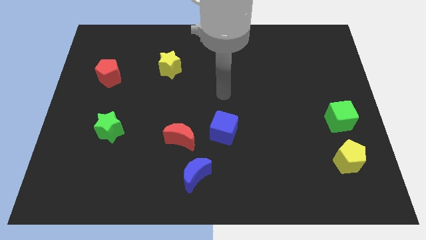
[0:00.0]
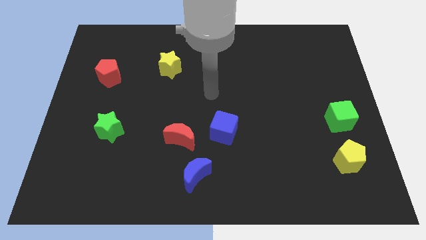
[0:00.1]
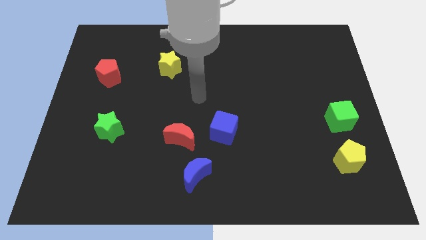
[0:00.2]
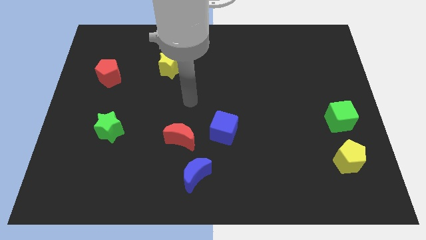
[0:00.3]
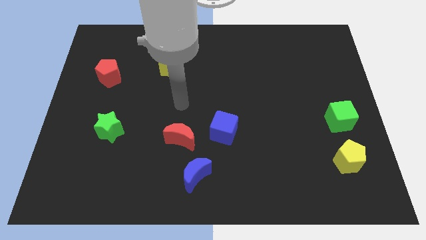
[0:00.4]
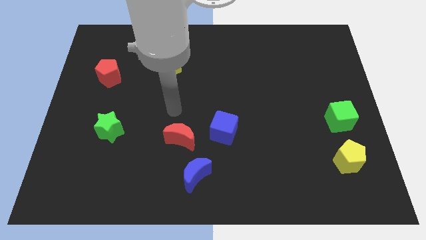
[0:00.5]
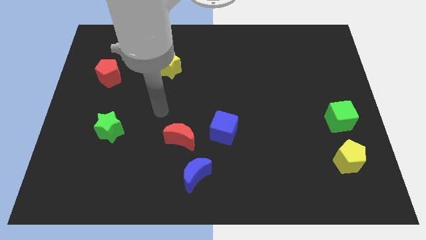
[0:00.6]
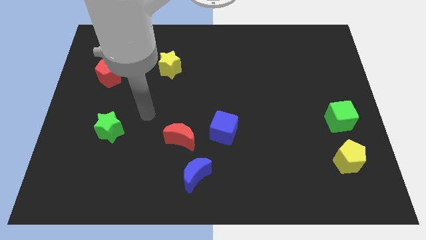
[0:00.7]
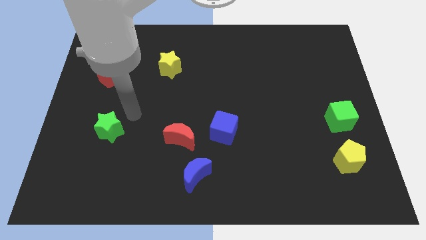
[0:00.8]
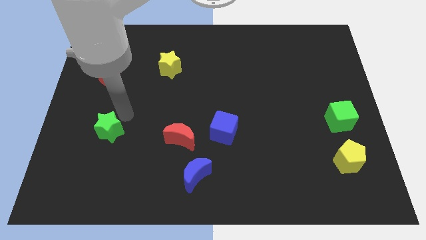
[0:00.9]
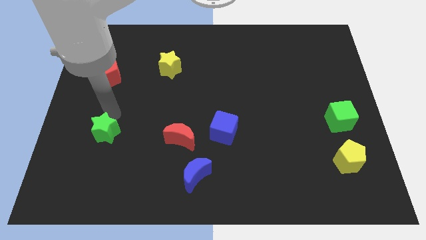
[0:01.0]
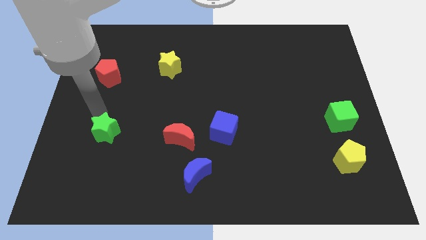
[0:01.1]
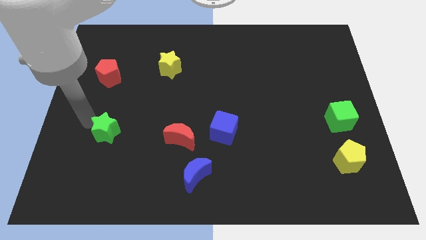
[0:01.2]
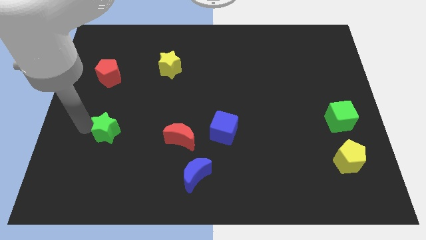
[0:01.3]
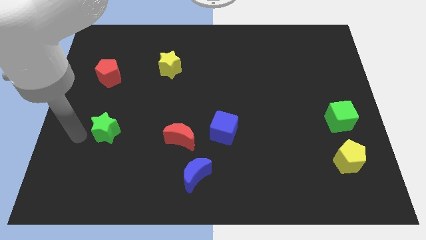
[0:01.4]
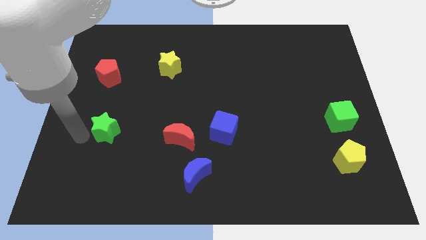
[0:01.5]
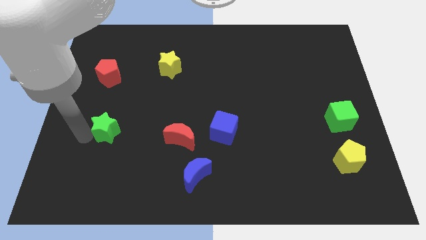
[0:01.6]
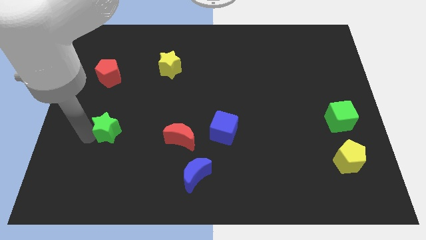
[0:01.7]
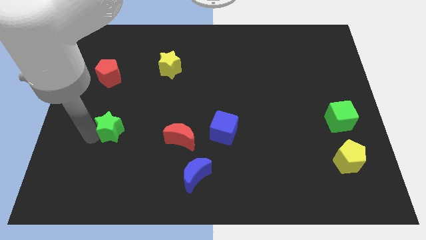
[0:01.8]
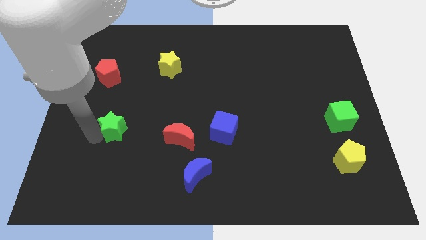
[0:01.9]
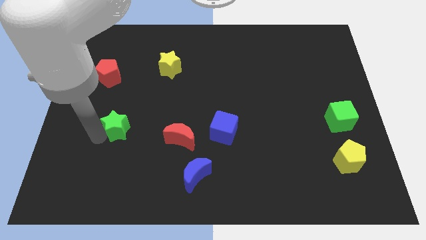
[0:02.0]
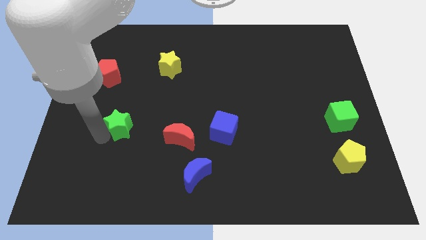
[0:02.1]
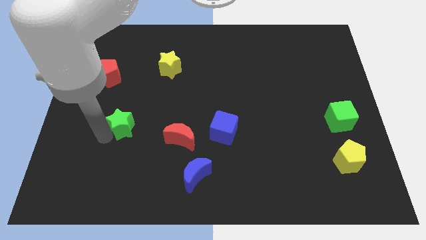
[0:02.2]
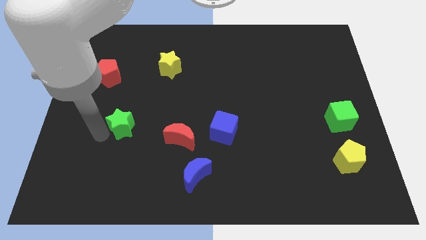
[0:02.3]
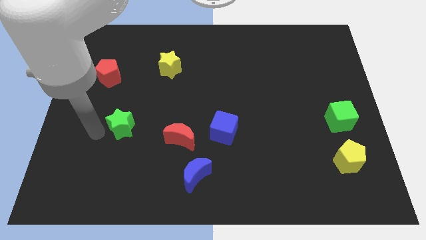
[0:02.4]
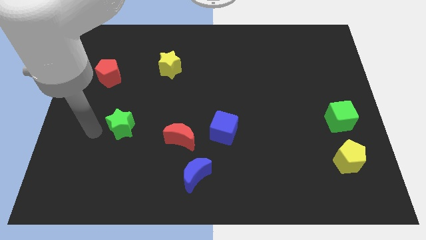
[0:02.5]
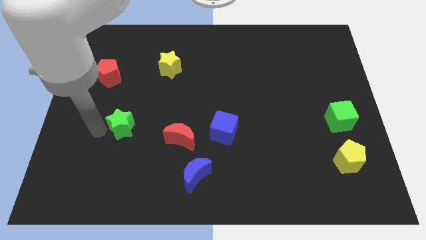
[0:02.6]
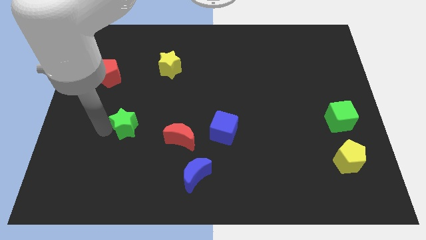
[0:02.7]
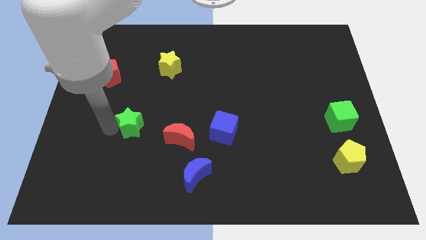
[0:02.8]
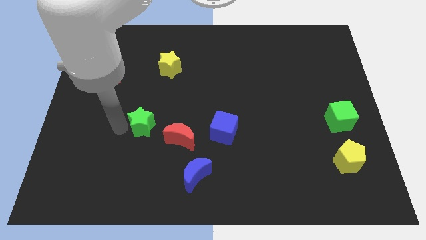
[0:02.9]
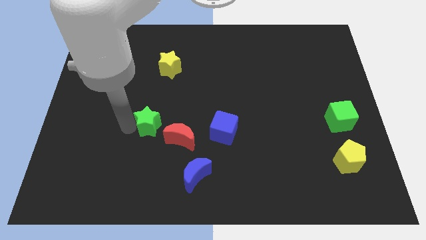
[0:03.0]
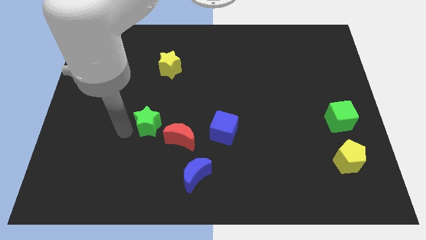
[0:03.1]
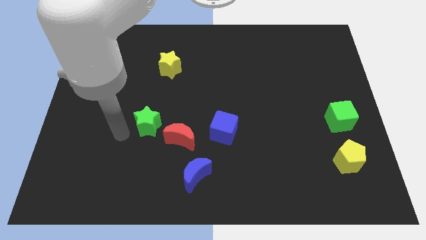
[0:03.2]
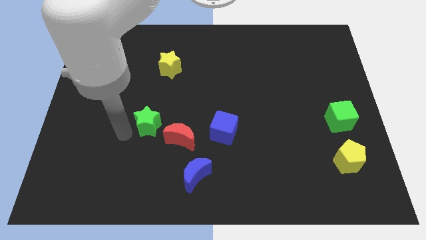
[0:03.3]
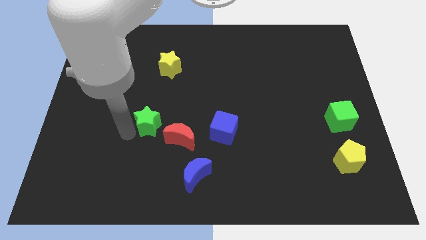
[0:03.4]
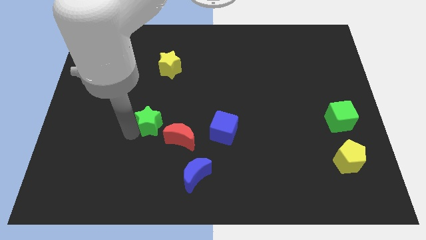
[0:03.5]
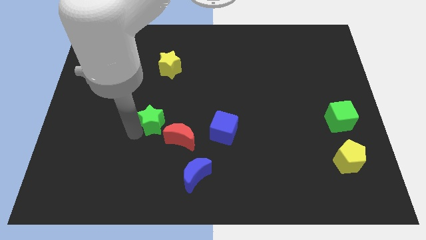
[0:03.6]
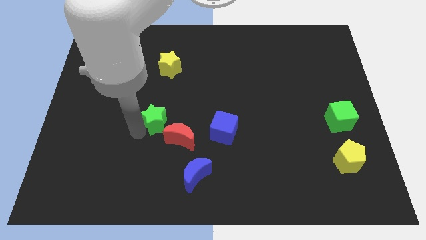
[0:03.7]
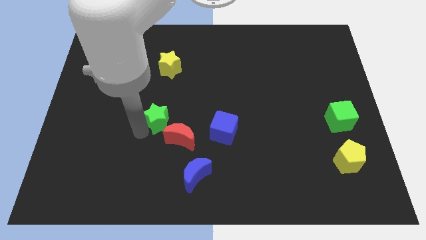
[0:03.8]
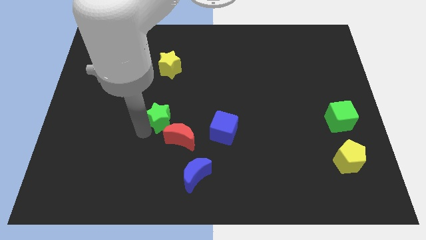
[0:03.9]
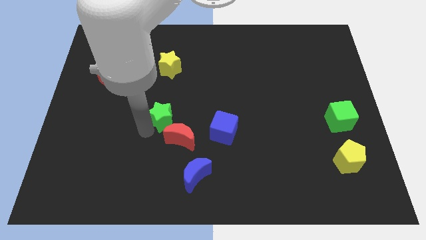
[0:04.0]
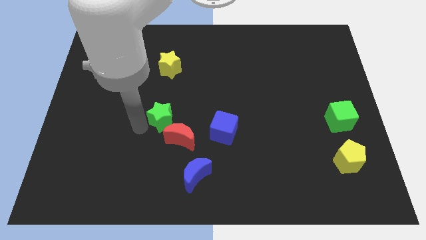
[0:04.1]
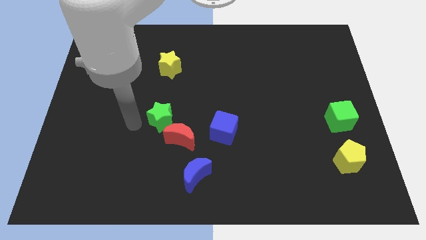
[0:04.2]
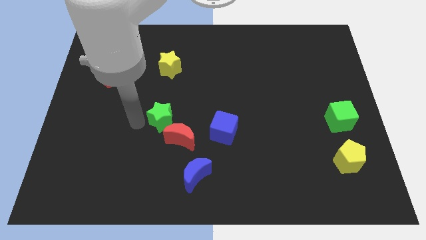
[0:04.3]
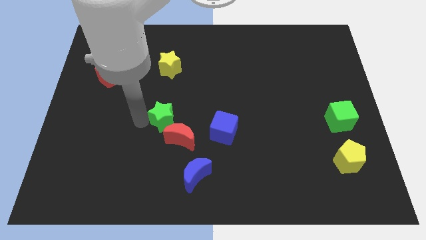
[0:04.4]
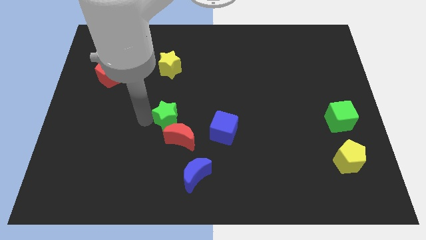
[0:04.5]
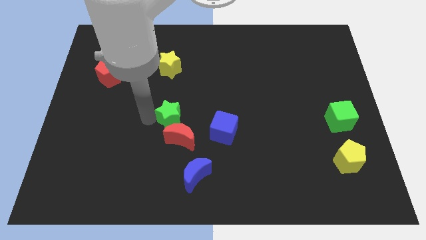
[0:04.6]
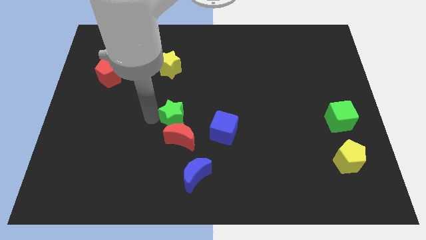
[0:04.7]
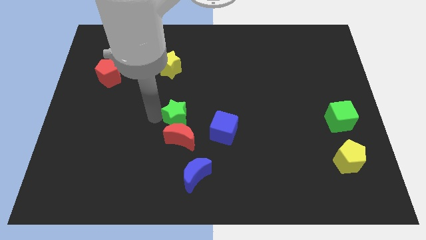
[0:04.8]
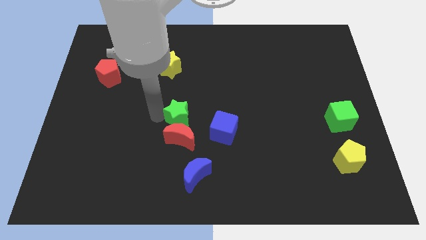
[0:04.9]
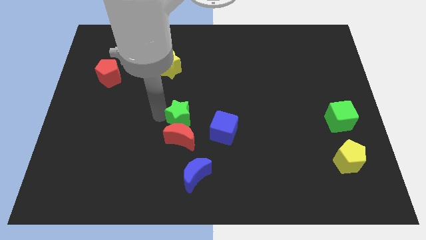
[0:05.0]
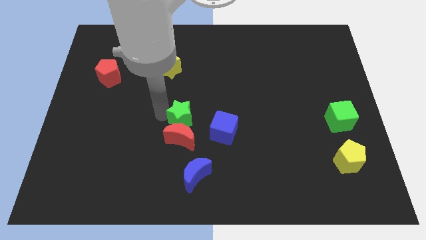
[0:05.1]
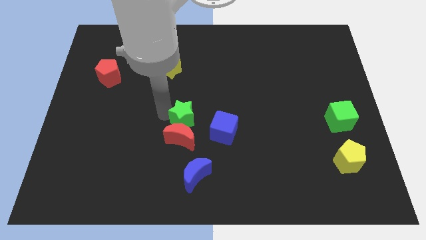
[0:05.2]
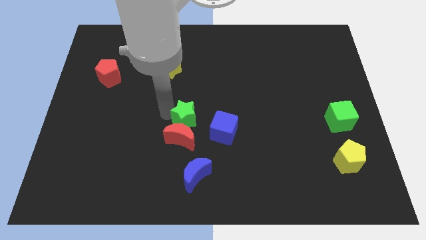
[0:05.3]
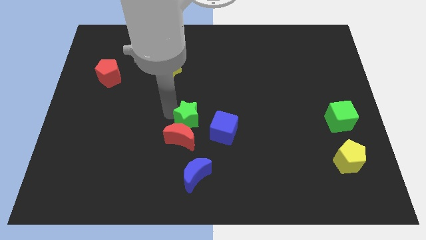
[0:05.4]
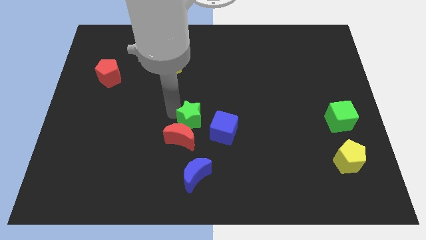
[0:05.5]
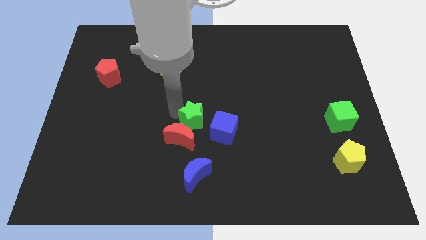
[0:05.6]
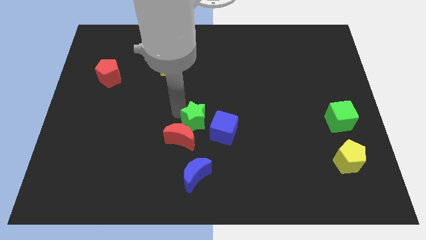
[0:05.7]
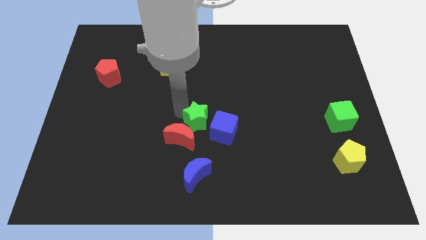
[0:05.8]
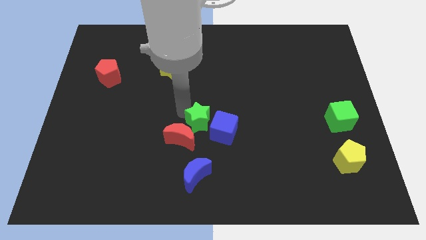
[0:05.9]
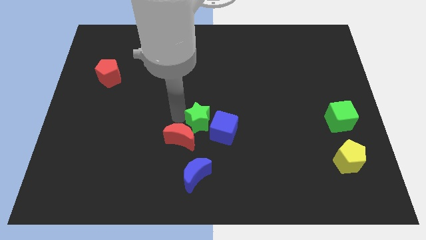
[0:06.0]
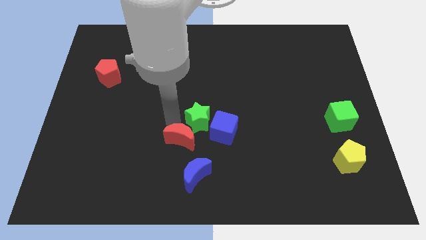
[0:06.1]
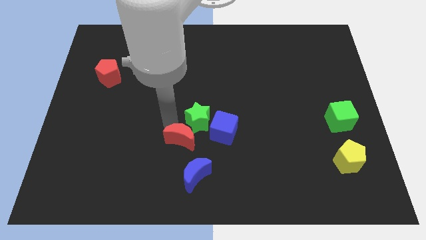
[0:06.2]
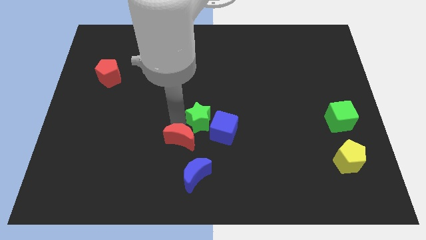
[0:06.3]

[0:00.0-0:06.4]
slide the green star to the right

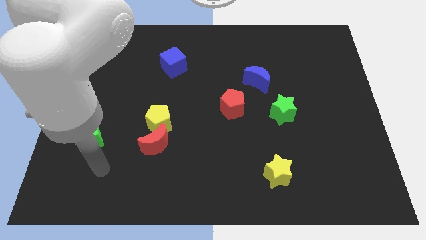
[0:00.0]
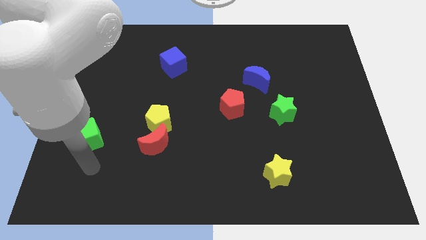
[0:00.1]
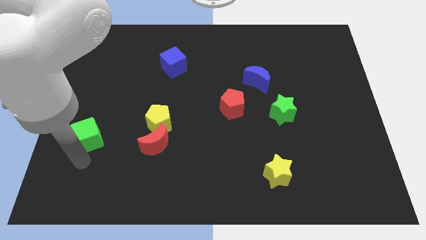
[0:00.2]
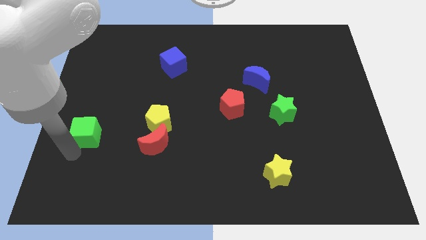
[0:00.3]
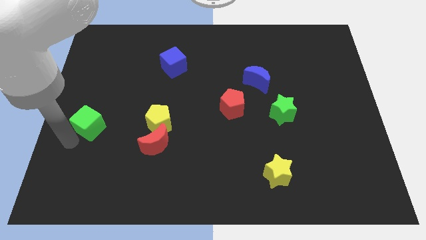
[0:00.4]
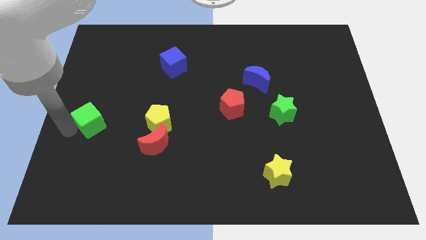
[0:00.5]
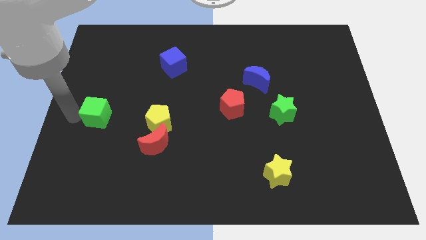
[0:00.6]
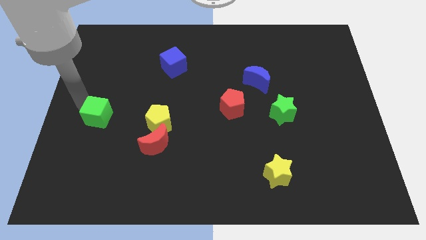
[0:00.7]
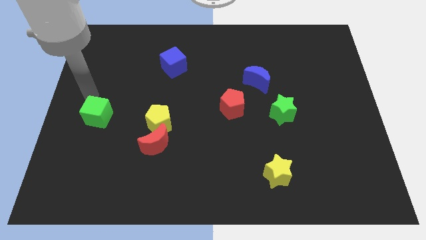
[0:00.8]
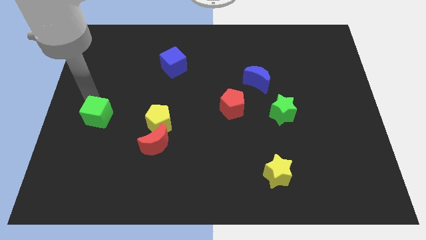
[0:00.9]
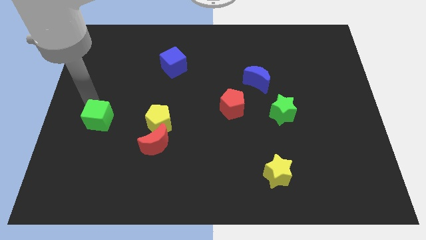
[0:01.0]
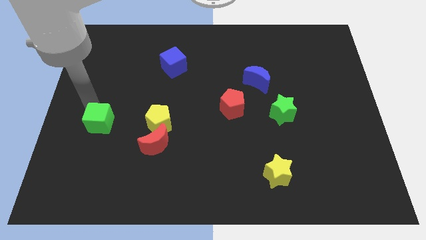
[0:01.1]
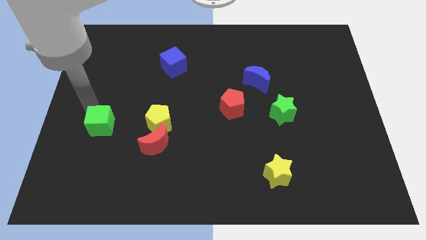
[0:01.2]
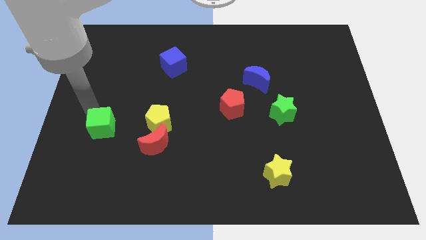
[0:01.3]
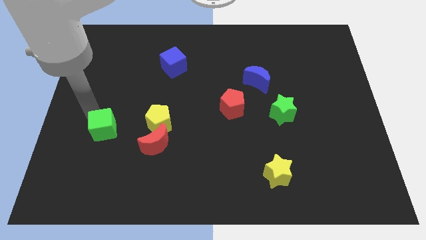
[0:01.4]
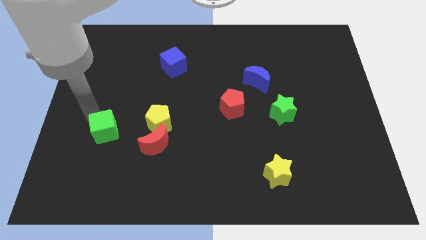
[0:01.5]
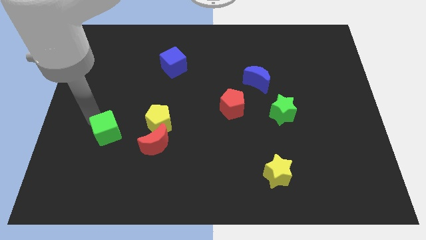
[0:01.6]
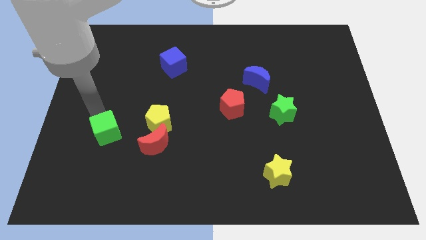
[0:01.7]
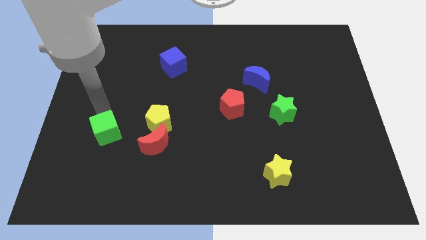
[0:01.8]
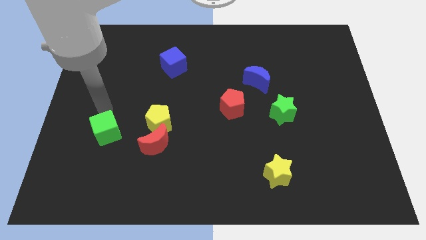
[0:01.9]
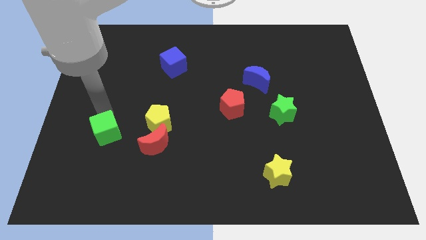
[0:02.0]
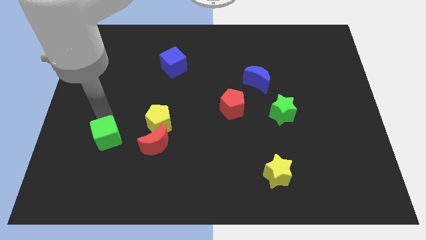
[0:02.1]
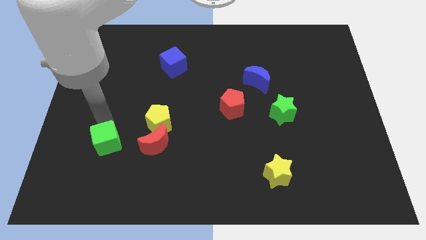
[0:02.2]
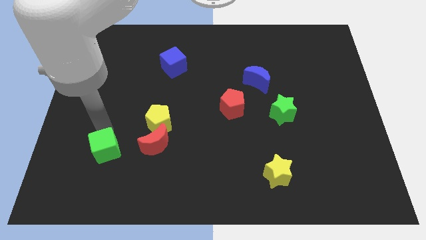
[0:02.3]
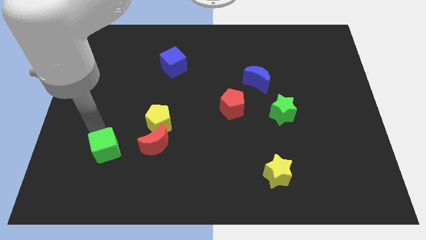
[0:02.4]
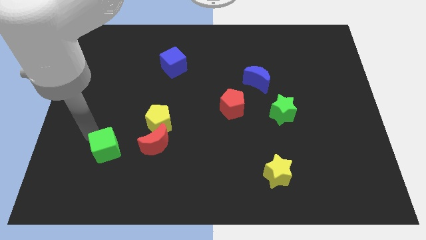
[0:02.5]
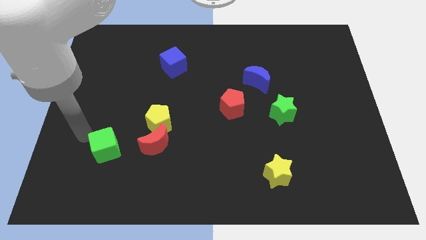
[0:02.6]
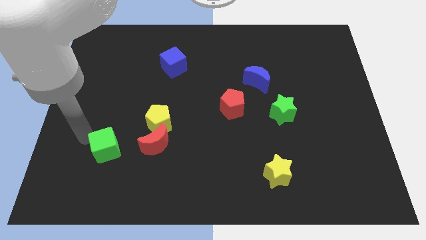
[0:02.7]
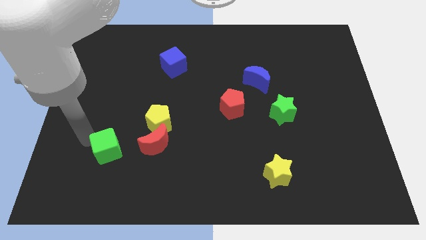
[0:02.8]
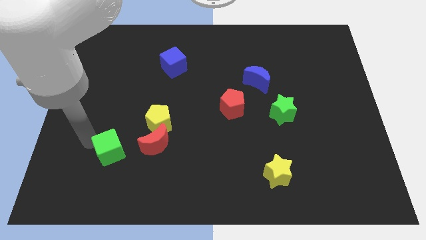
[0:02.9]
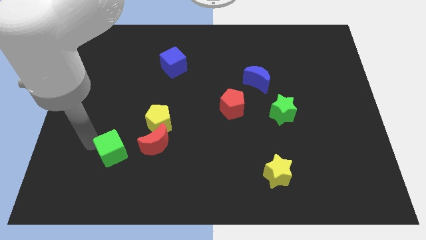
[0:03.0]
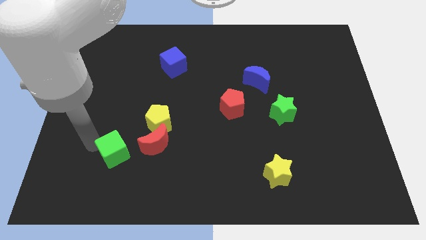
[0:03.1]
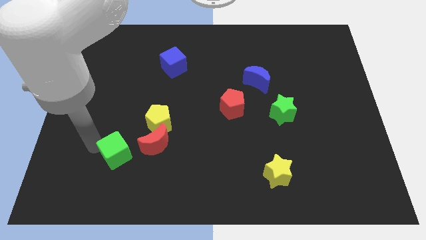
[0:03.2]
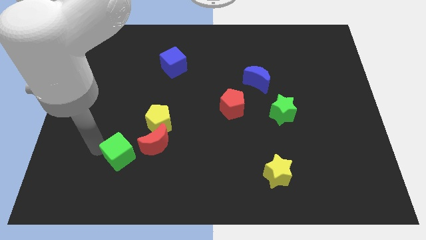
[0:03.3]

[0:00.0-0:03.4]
push the green cube to the right a little bit
